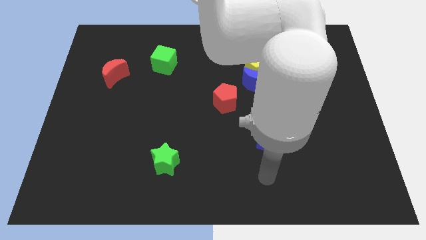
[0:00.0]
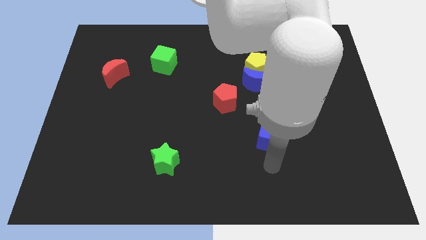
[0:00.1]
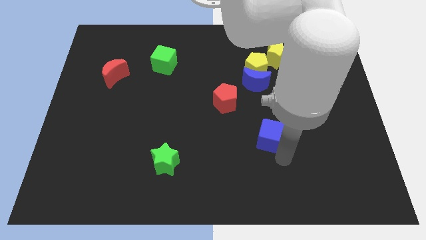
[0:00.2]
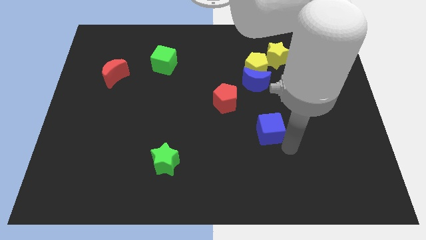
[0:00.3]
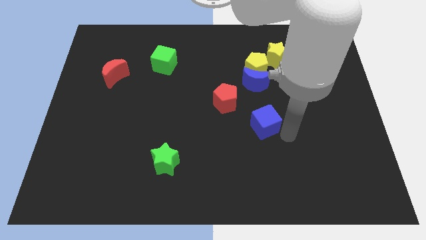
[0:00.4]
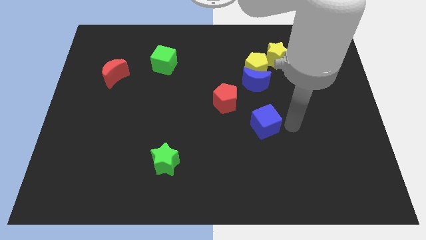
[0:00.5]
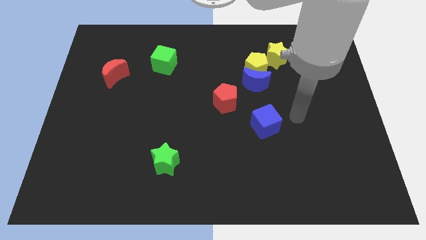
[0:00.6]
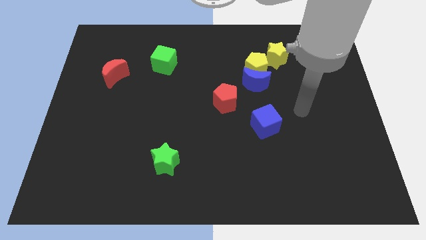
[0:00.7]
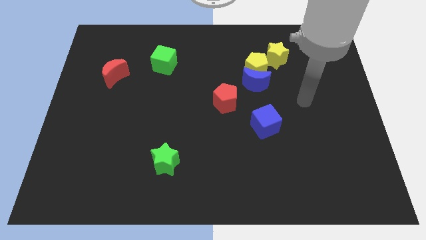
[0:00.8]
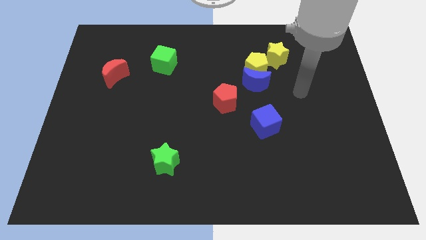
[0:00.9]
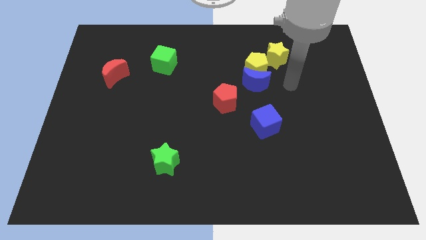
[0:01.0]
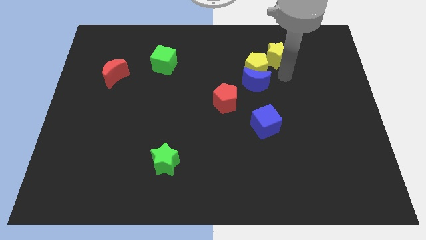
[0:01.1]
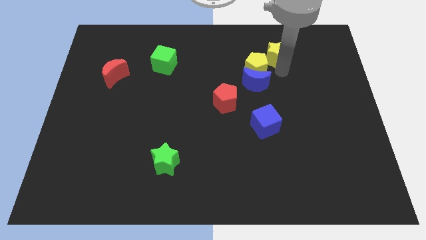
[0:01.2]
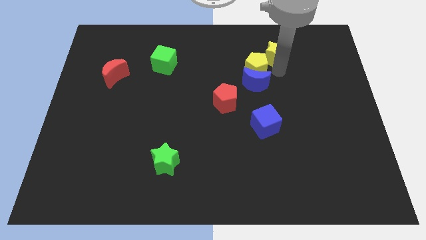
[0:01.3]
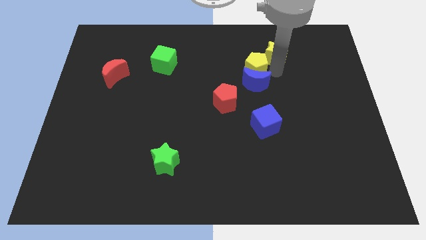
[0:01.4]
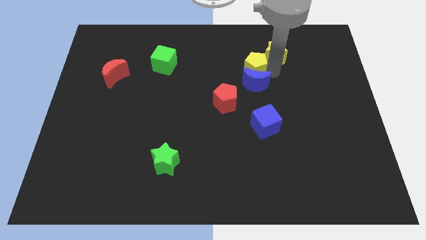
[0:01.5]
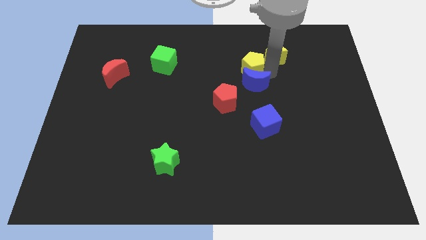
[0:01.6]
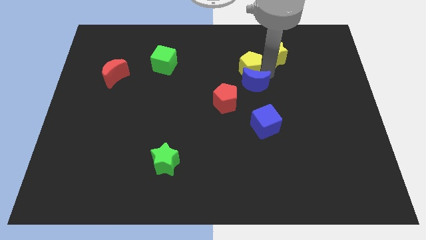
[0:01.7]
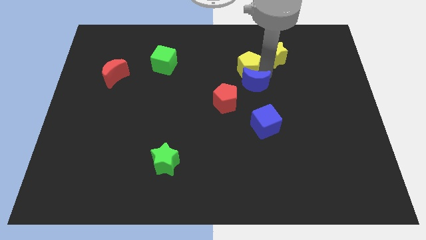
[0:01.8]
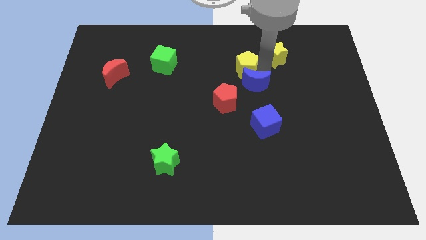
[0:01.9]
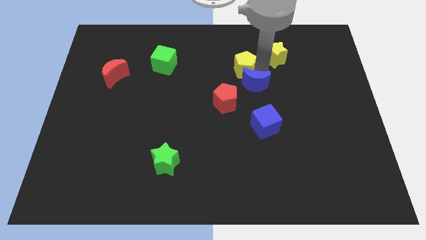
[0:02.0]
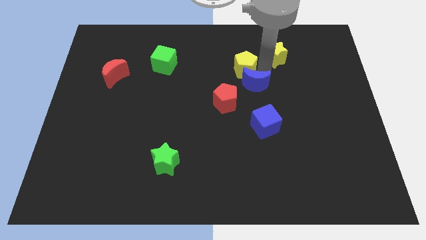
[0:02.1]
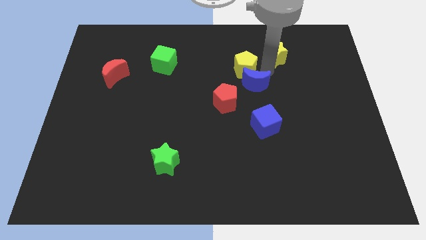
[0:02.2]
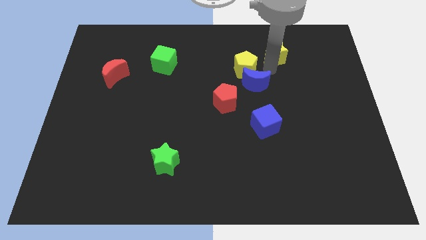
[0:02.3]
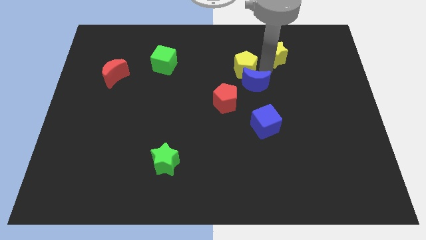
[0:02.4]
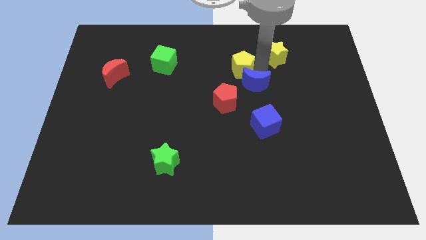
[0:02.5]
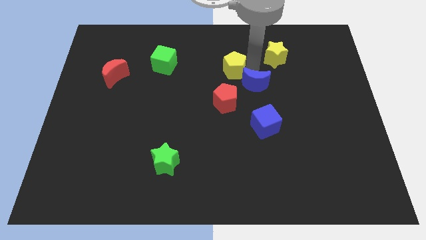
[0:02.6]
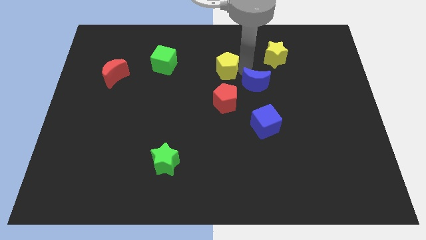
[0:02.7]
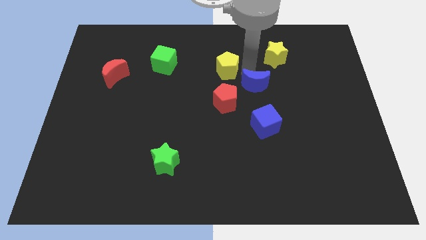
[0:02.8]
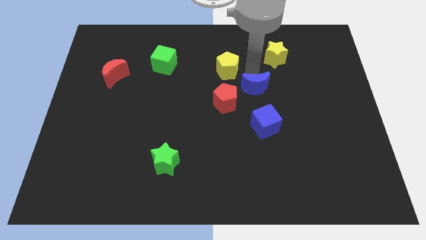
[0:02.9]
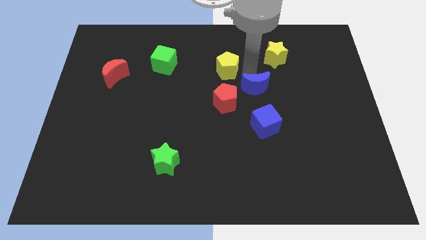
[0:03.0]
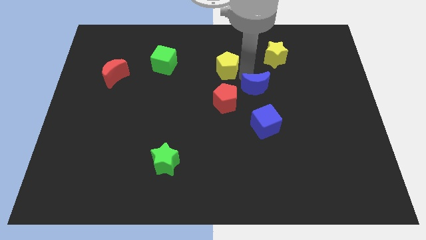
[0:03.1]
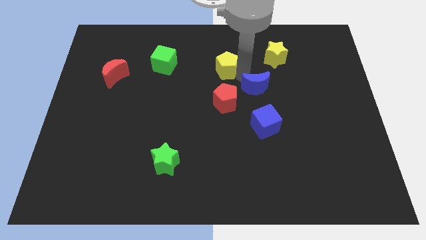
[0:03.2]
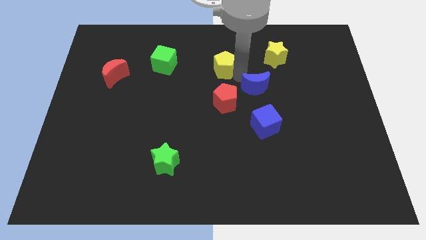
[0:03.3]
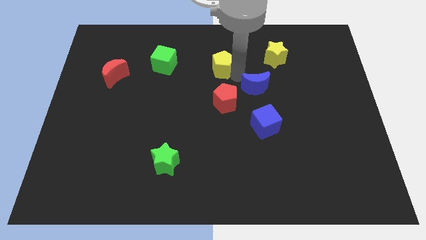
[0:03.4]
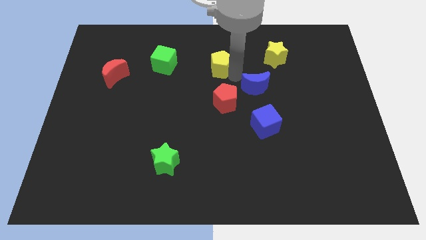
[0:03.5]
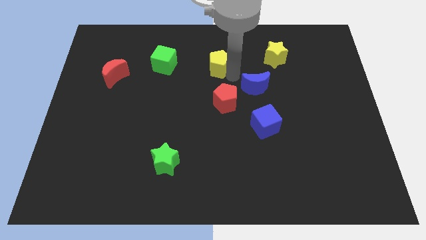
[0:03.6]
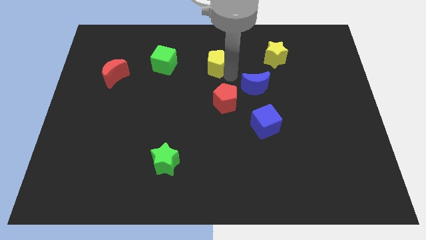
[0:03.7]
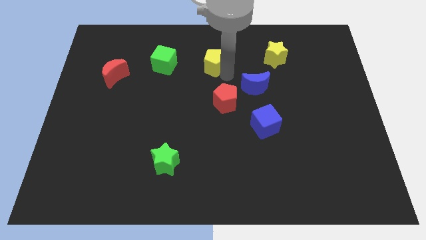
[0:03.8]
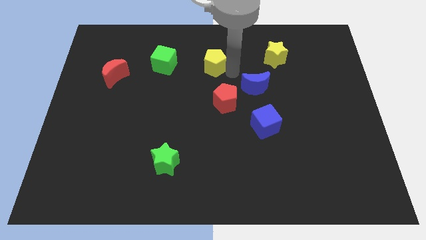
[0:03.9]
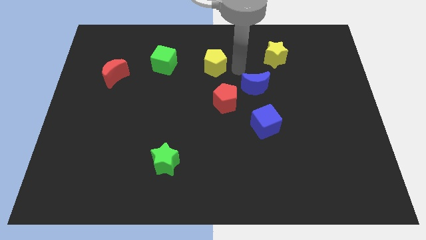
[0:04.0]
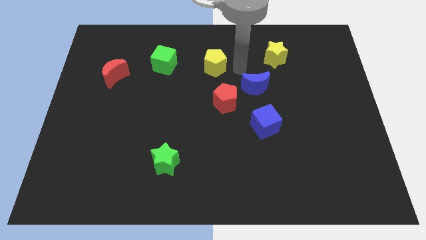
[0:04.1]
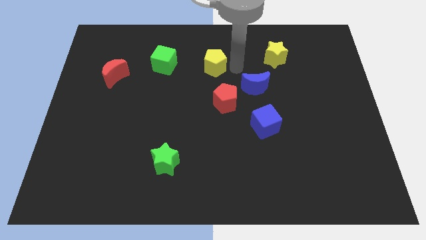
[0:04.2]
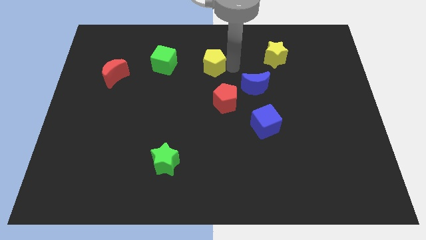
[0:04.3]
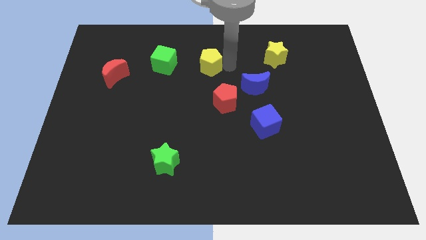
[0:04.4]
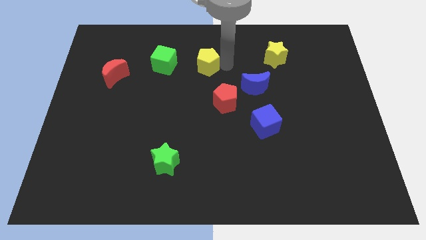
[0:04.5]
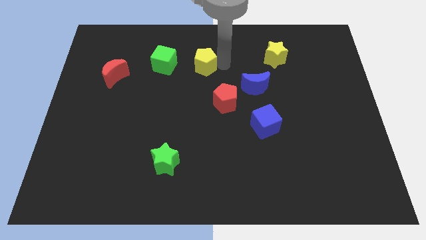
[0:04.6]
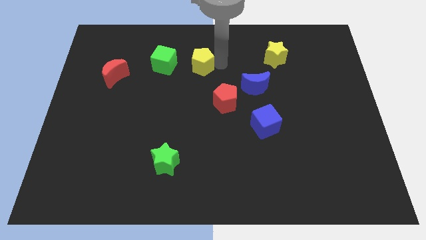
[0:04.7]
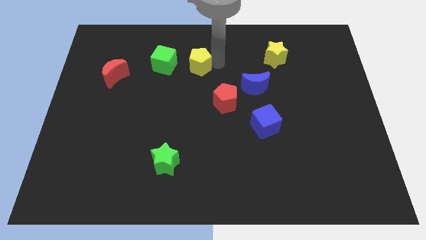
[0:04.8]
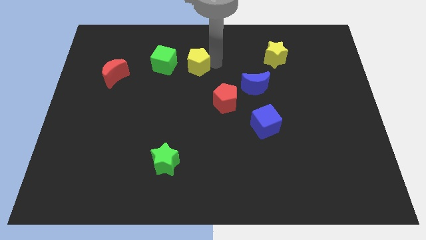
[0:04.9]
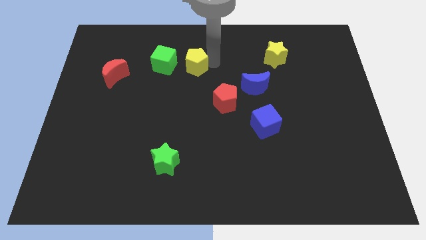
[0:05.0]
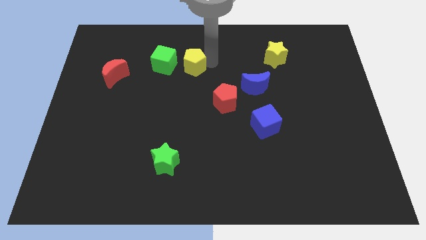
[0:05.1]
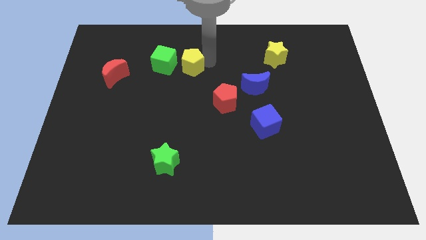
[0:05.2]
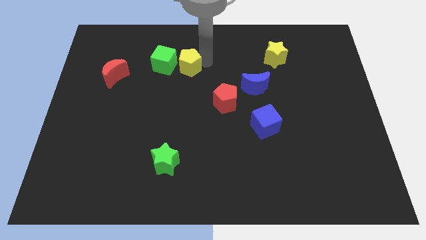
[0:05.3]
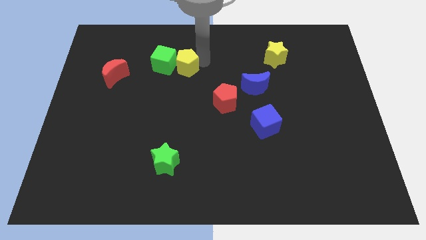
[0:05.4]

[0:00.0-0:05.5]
slide the yellow pentagon to the green cube
